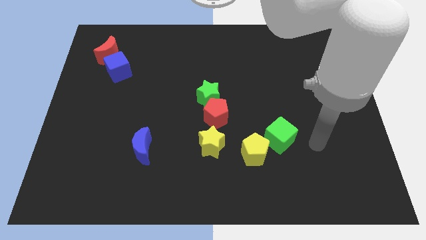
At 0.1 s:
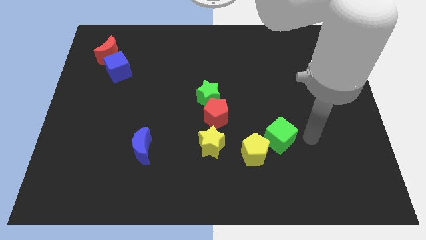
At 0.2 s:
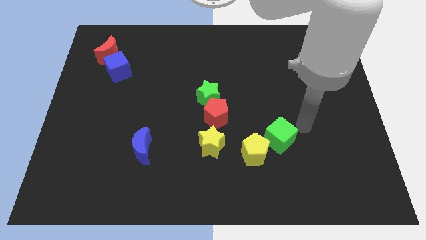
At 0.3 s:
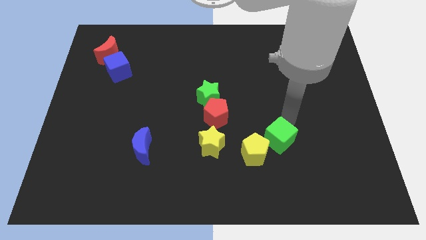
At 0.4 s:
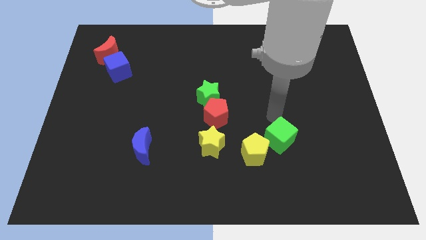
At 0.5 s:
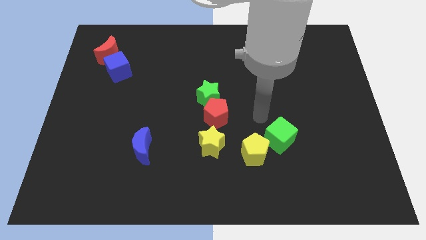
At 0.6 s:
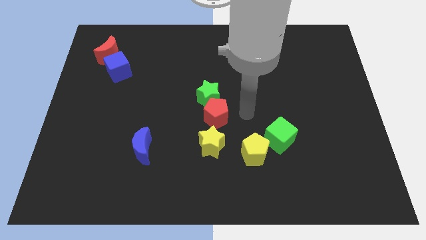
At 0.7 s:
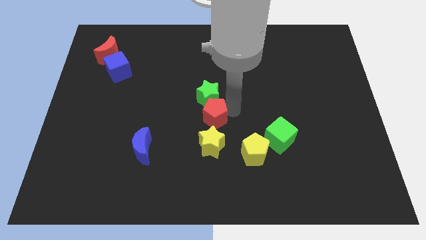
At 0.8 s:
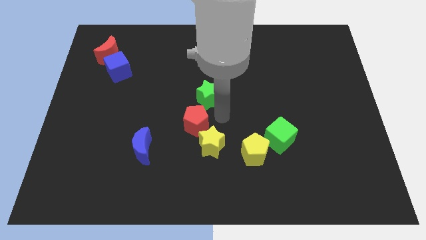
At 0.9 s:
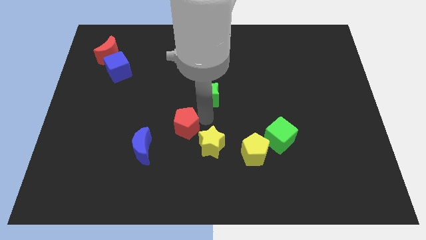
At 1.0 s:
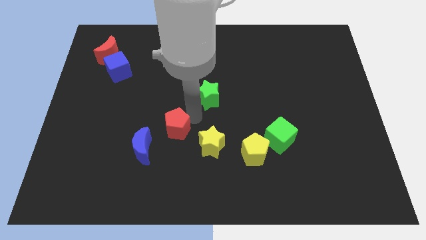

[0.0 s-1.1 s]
pull the green star apart from the red pentagon

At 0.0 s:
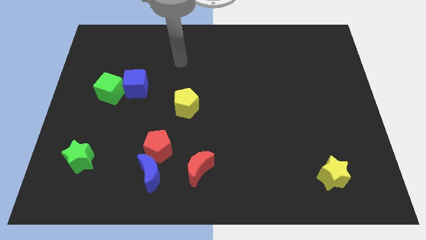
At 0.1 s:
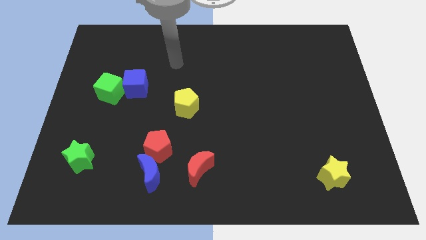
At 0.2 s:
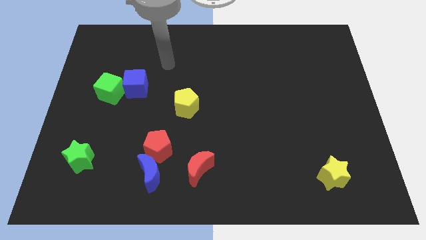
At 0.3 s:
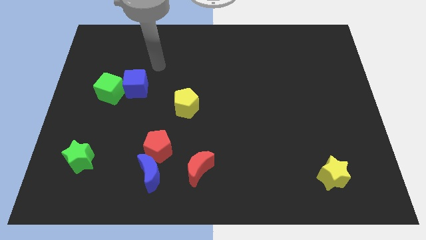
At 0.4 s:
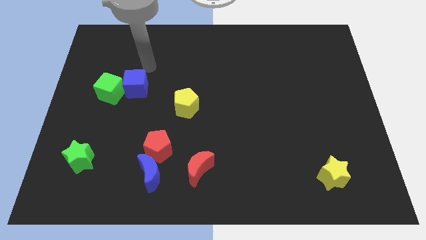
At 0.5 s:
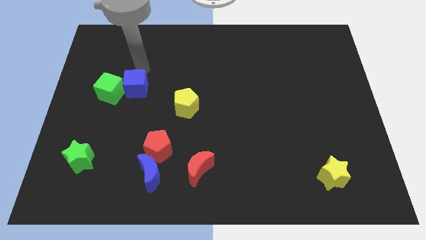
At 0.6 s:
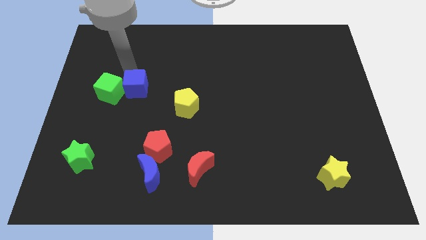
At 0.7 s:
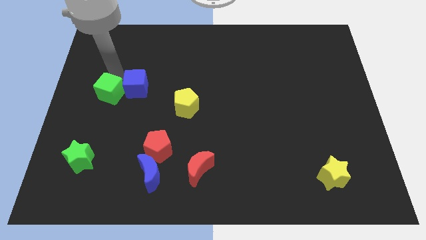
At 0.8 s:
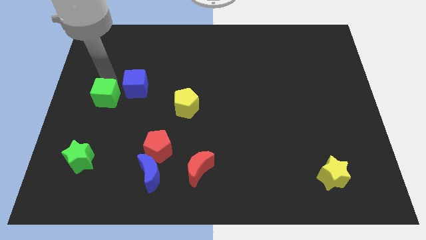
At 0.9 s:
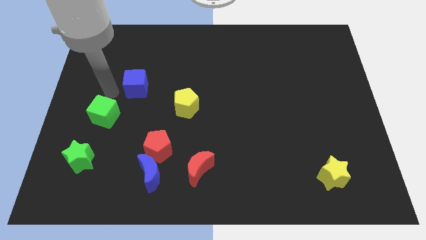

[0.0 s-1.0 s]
move the blue cube away from the green cube

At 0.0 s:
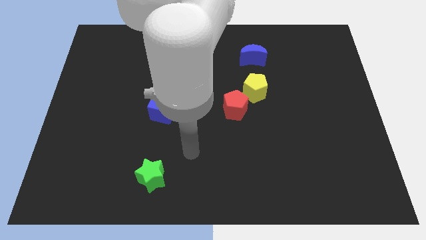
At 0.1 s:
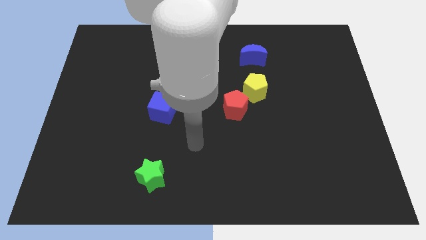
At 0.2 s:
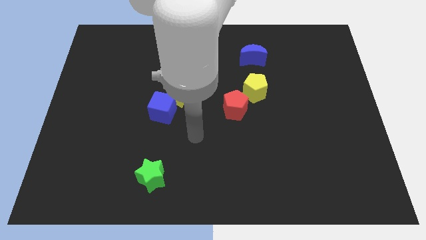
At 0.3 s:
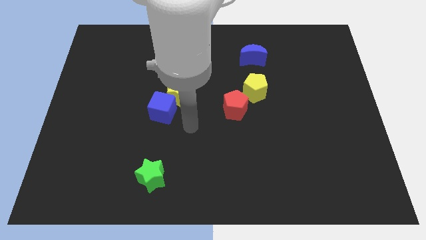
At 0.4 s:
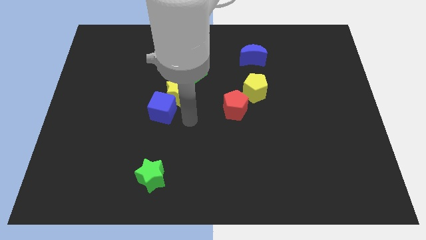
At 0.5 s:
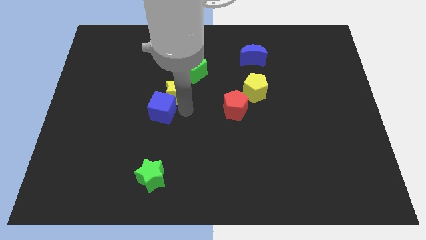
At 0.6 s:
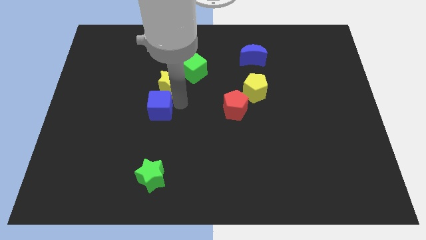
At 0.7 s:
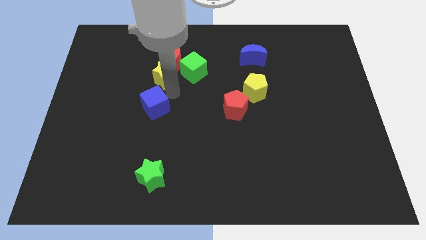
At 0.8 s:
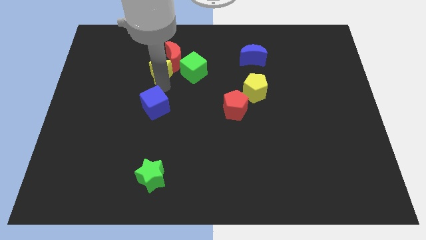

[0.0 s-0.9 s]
move the blue cube away from the yellow star

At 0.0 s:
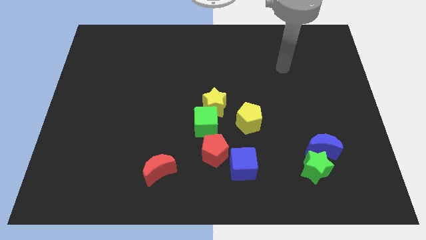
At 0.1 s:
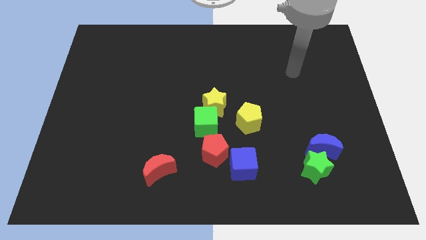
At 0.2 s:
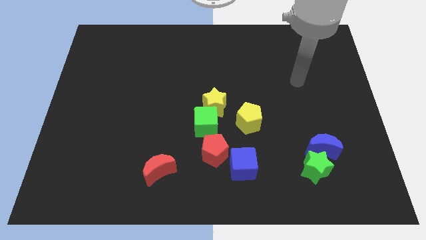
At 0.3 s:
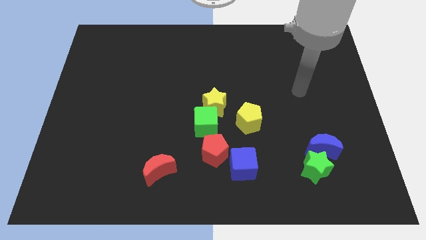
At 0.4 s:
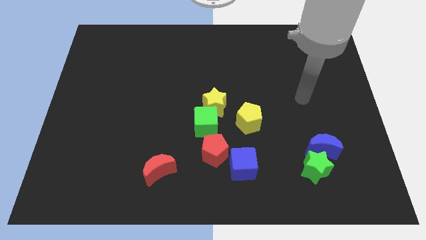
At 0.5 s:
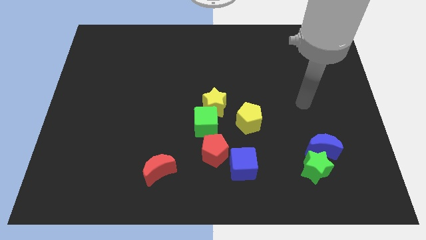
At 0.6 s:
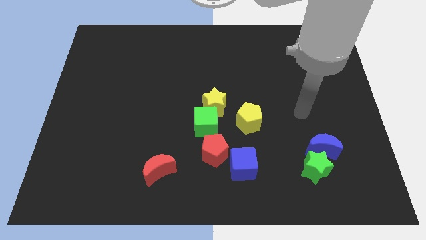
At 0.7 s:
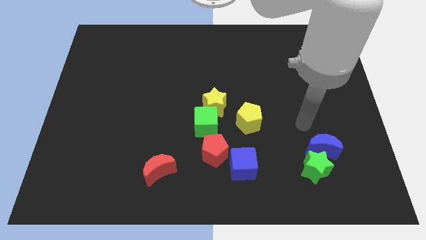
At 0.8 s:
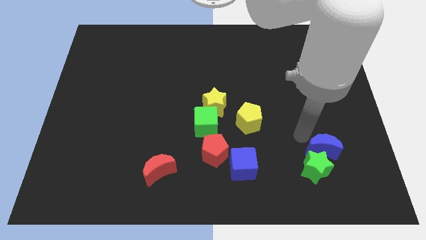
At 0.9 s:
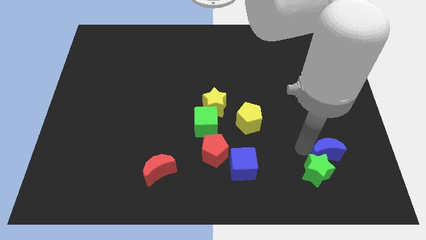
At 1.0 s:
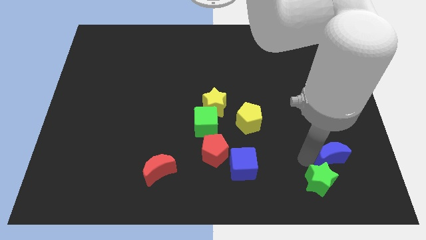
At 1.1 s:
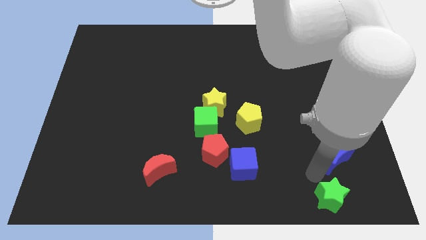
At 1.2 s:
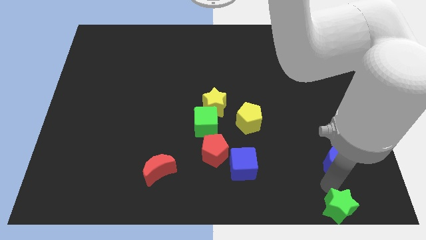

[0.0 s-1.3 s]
pull the blue moon apart from the green star

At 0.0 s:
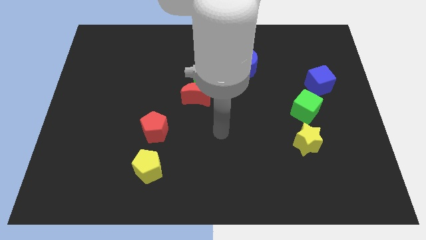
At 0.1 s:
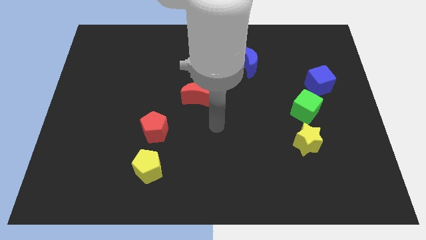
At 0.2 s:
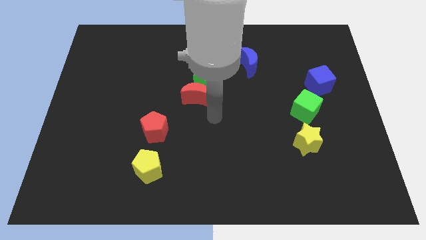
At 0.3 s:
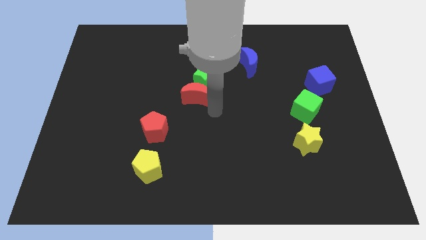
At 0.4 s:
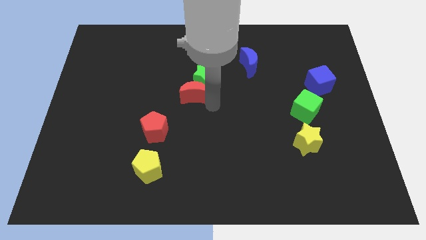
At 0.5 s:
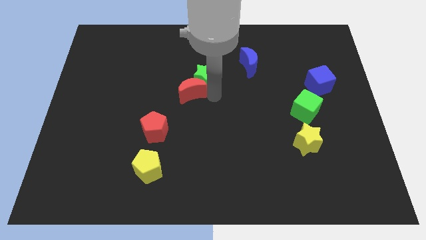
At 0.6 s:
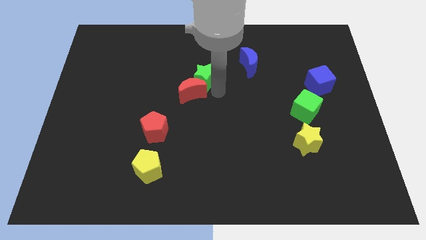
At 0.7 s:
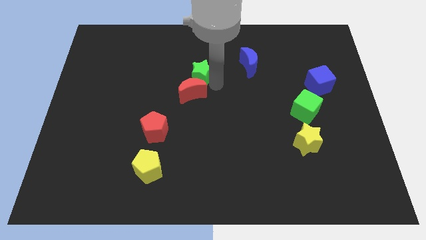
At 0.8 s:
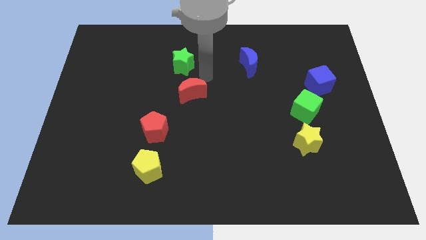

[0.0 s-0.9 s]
move the red moon away from the green star

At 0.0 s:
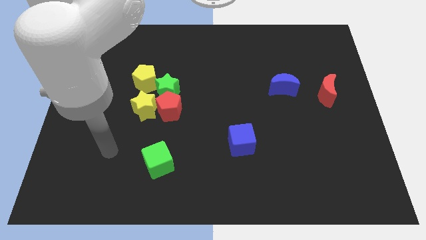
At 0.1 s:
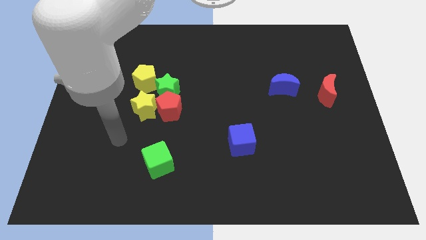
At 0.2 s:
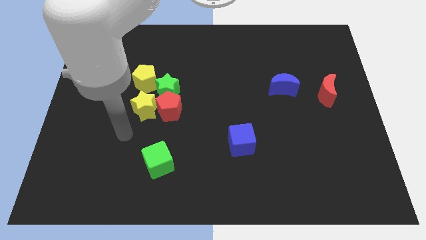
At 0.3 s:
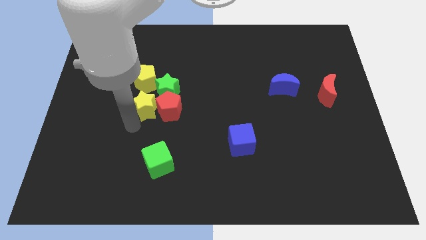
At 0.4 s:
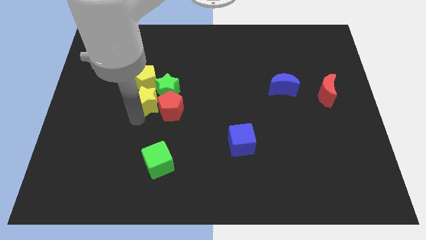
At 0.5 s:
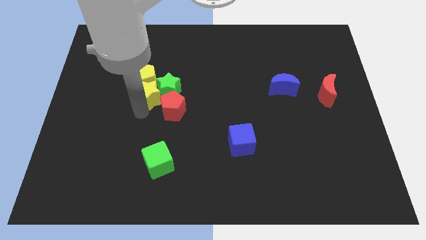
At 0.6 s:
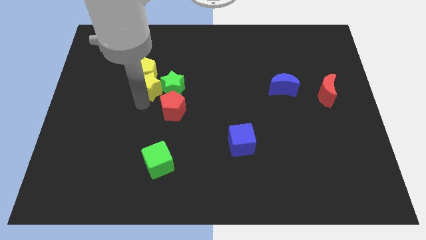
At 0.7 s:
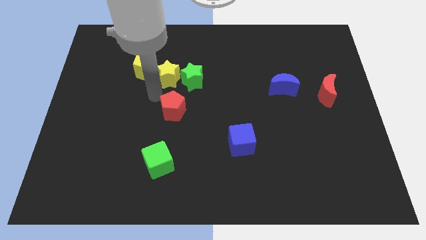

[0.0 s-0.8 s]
move the red pentagon away from the green star and yellow star

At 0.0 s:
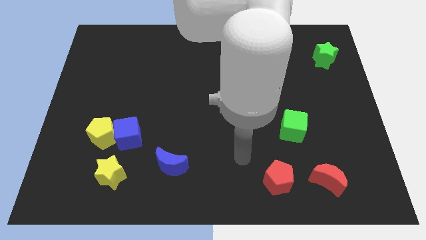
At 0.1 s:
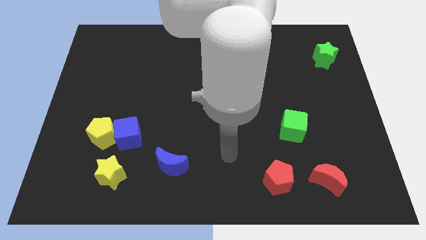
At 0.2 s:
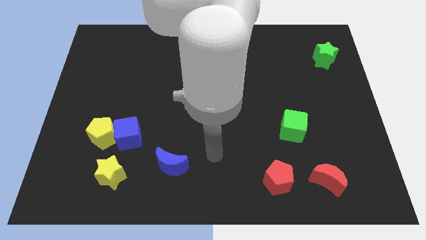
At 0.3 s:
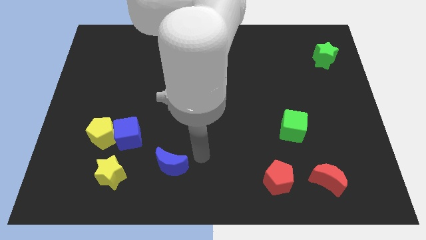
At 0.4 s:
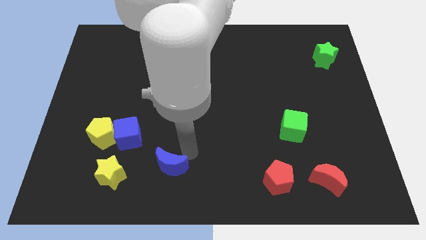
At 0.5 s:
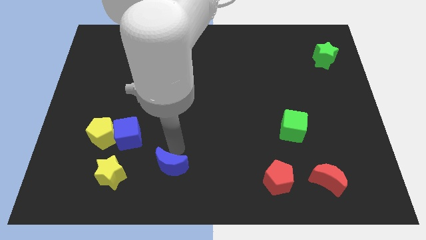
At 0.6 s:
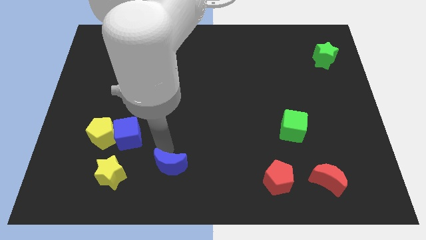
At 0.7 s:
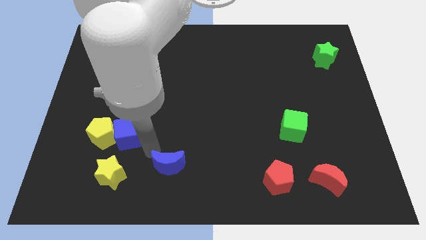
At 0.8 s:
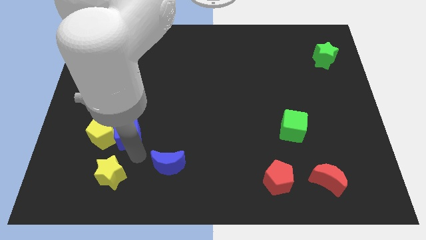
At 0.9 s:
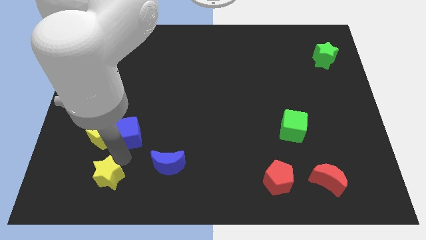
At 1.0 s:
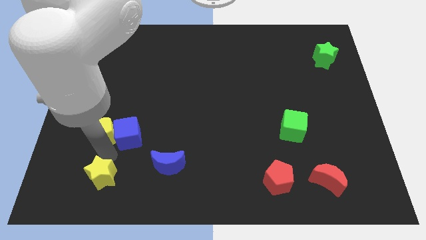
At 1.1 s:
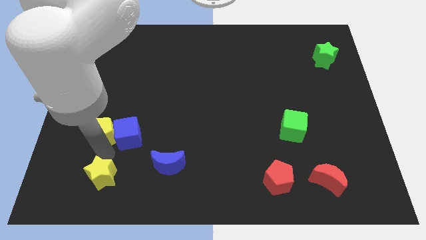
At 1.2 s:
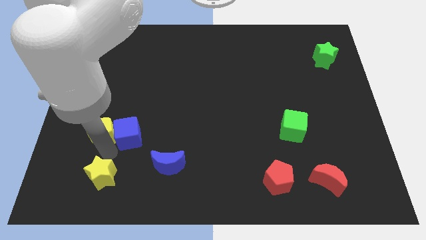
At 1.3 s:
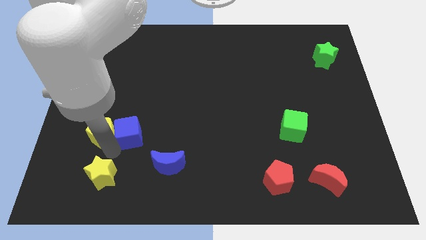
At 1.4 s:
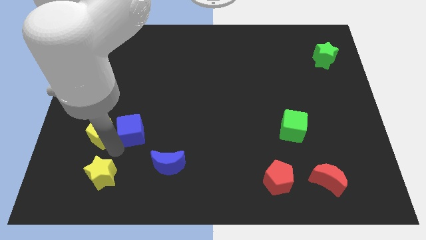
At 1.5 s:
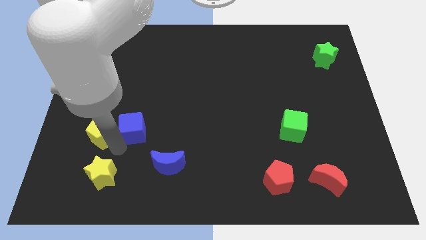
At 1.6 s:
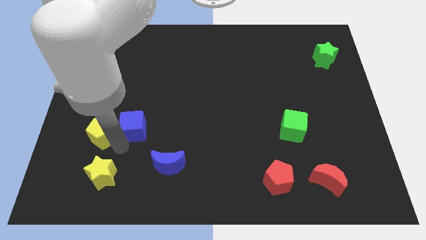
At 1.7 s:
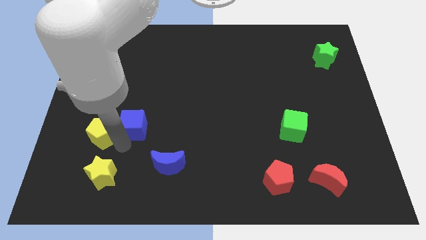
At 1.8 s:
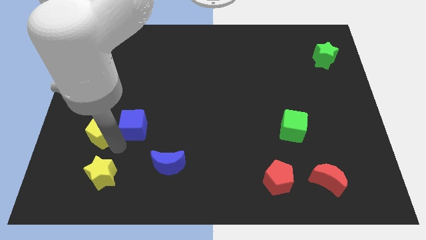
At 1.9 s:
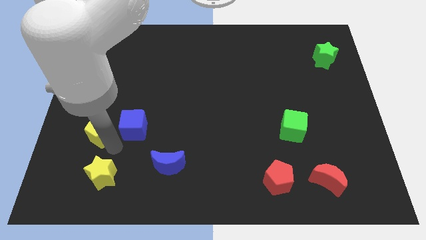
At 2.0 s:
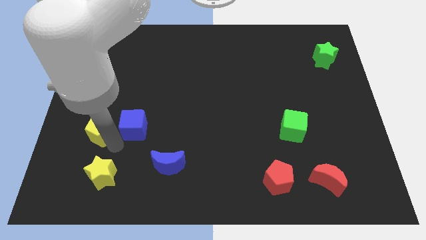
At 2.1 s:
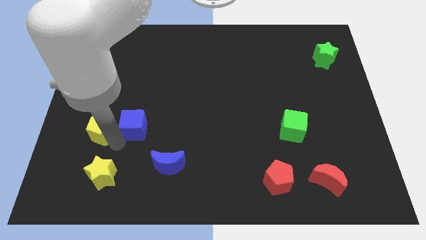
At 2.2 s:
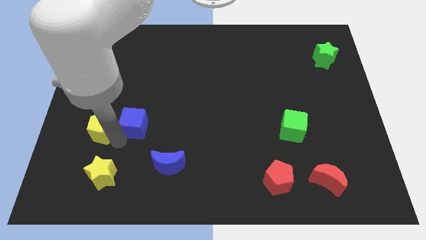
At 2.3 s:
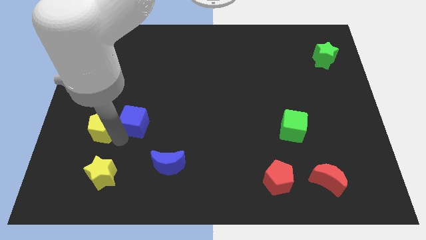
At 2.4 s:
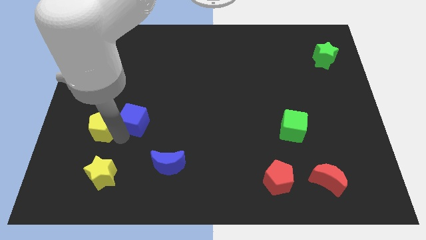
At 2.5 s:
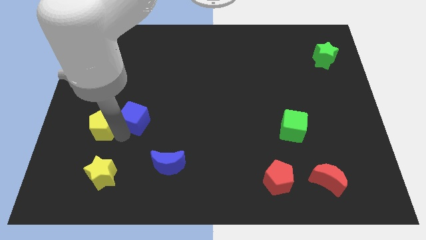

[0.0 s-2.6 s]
separate the blue cube from the yellow pentagon and yellow star

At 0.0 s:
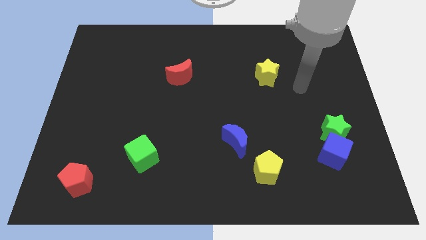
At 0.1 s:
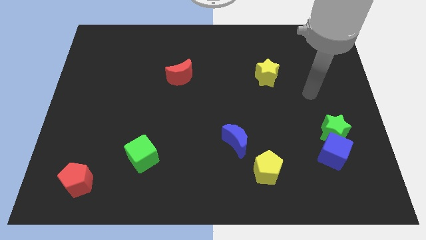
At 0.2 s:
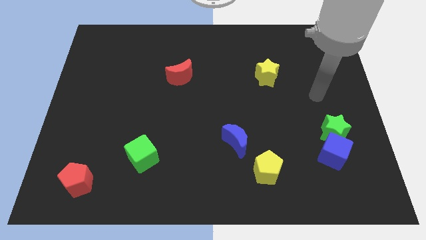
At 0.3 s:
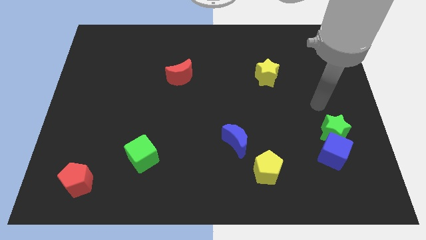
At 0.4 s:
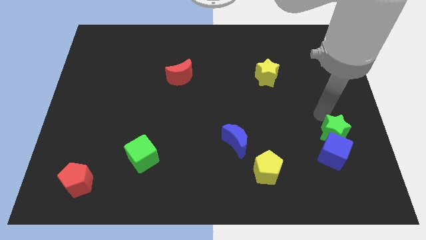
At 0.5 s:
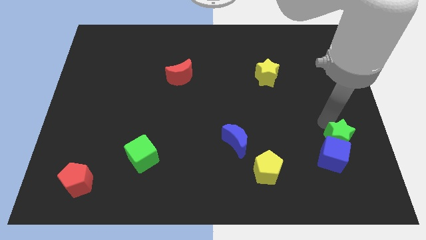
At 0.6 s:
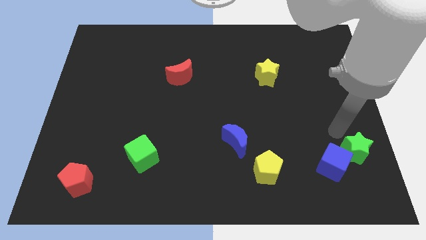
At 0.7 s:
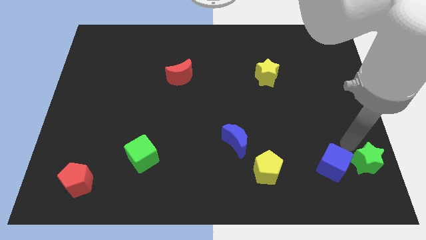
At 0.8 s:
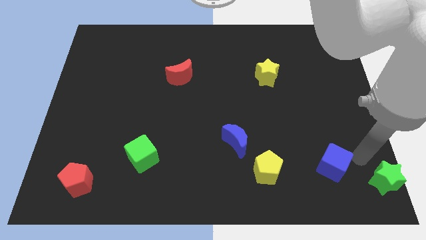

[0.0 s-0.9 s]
move the blue cube away from the green star
